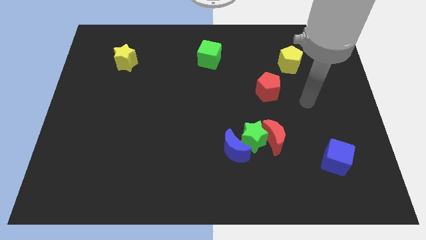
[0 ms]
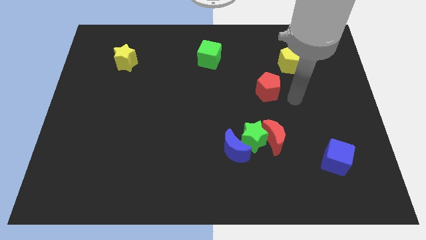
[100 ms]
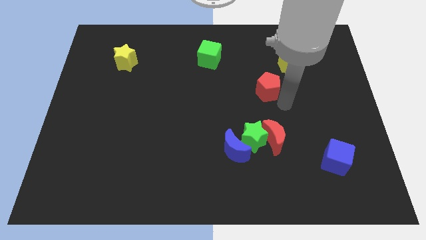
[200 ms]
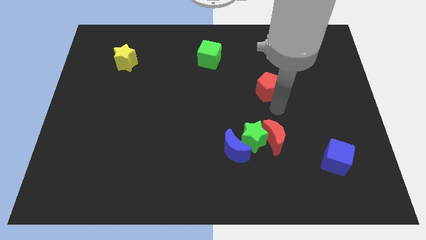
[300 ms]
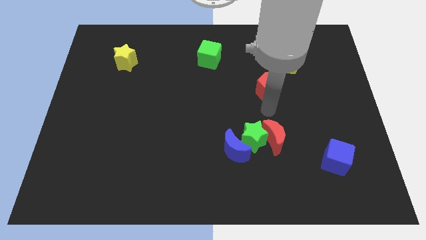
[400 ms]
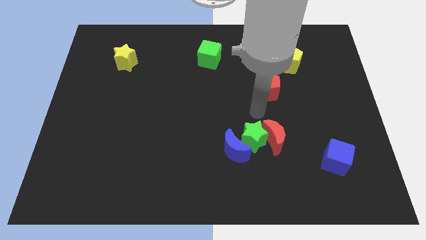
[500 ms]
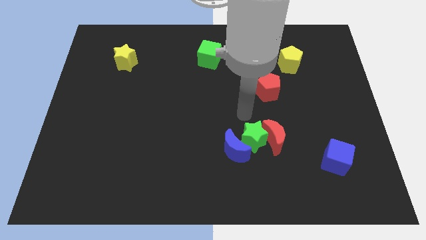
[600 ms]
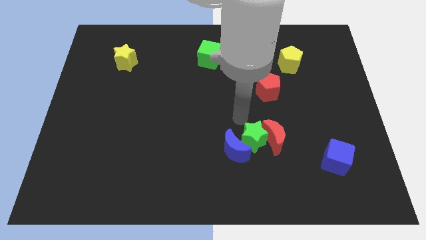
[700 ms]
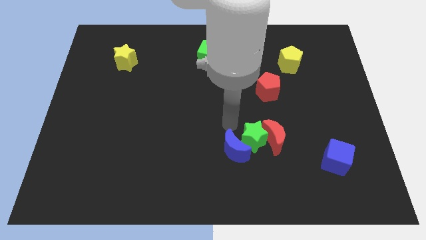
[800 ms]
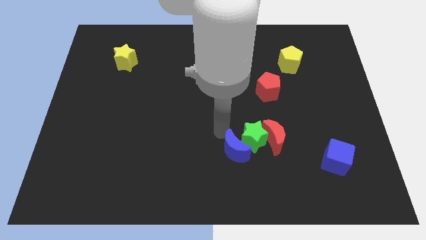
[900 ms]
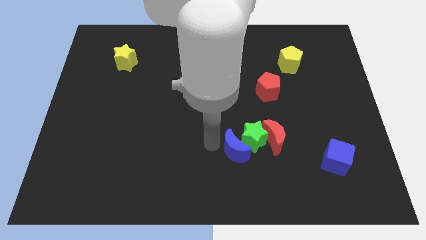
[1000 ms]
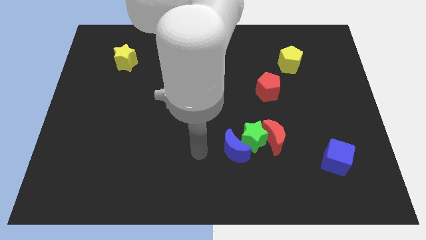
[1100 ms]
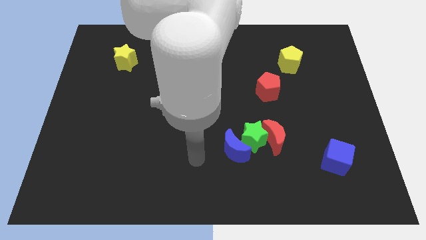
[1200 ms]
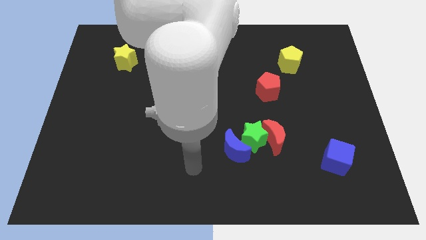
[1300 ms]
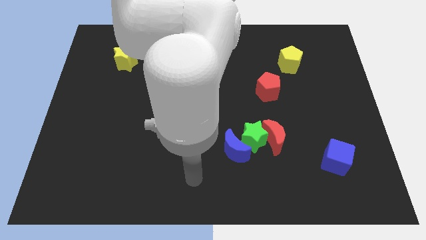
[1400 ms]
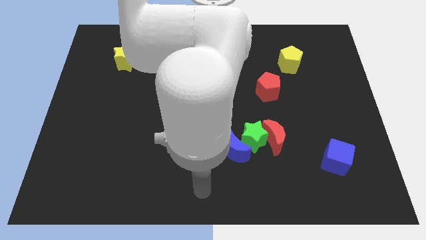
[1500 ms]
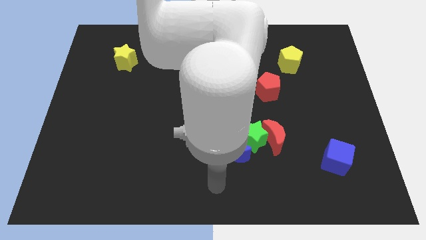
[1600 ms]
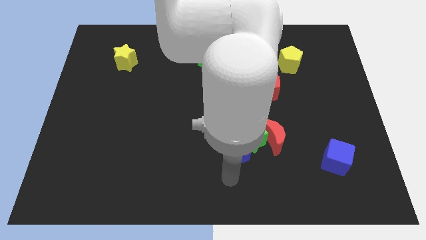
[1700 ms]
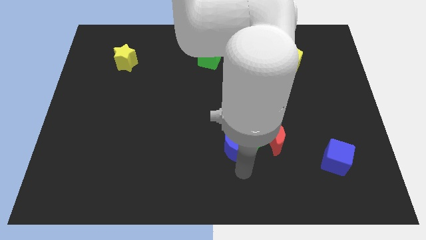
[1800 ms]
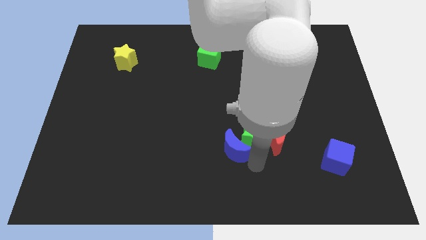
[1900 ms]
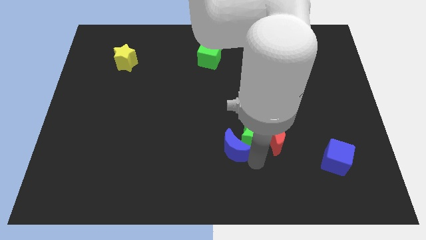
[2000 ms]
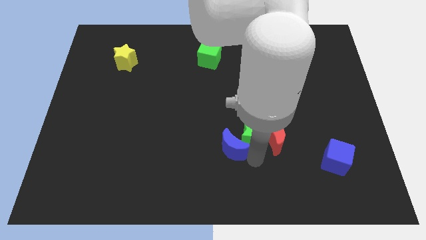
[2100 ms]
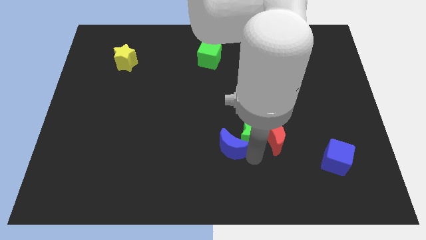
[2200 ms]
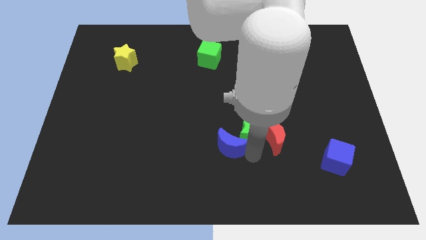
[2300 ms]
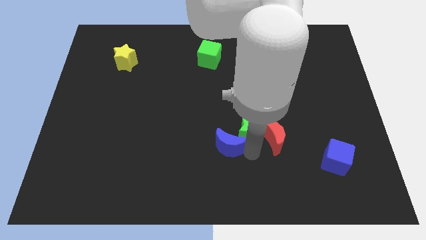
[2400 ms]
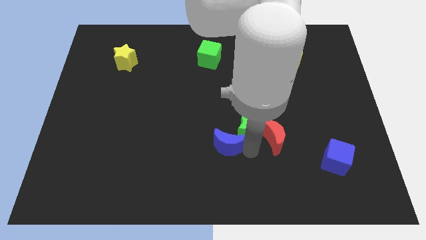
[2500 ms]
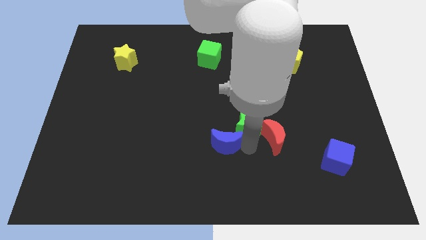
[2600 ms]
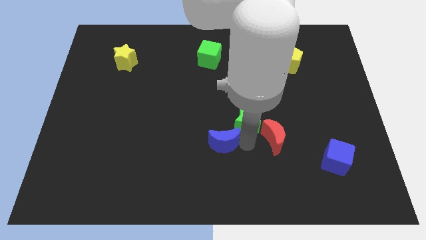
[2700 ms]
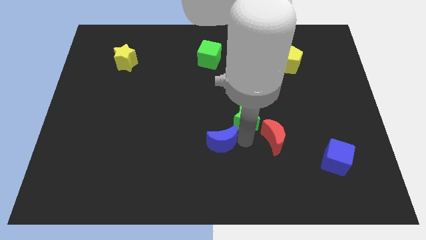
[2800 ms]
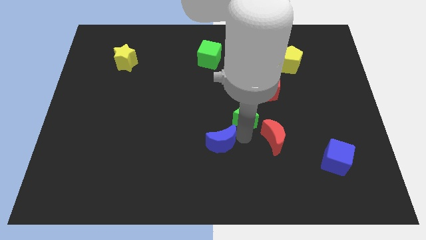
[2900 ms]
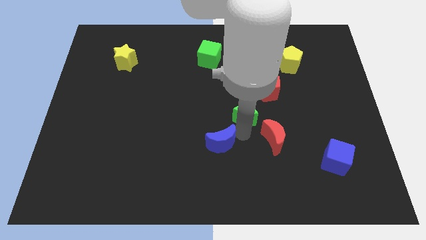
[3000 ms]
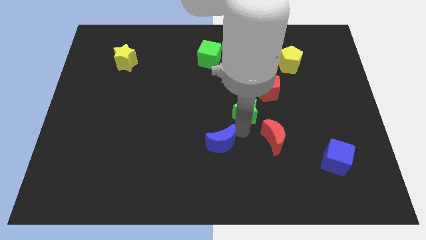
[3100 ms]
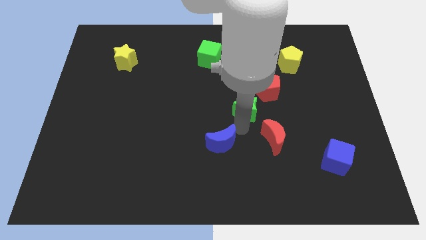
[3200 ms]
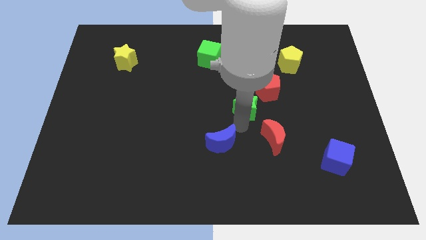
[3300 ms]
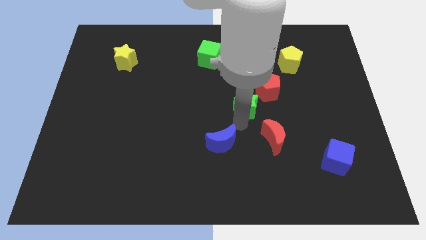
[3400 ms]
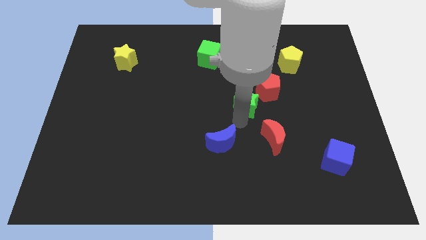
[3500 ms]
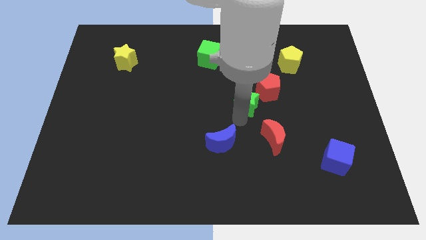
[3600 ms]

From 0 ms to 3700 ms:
pull the green star apart from the red moon and blue moon

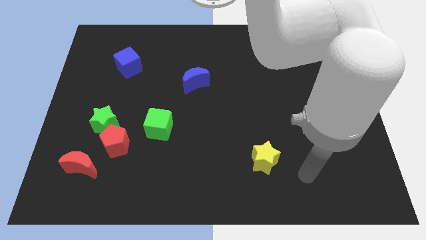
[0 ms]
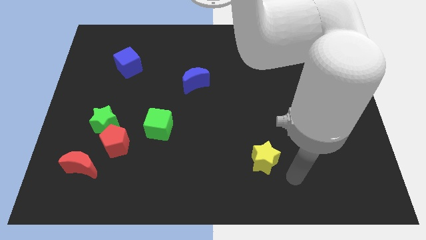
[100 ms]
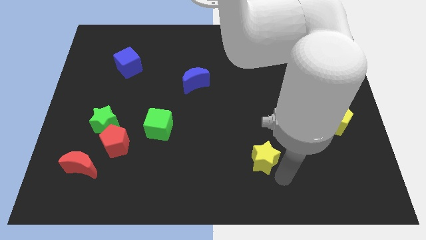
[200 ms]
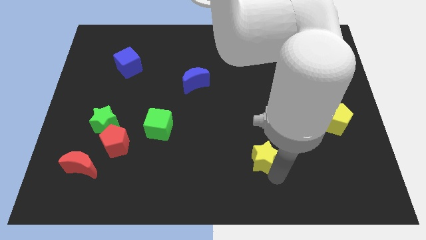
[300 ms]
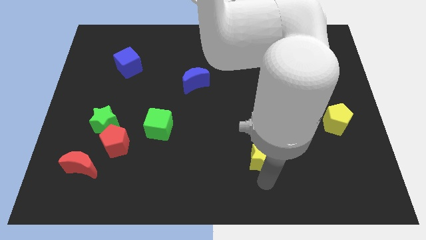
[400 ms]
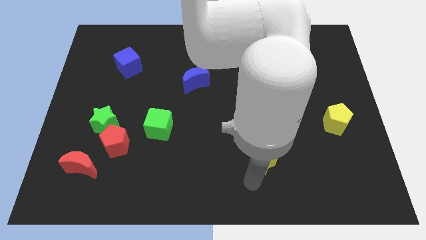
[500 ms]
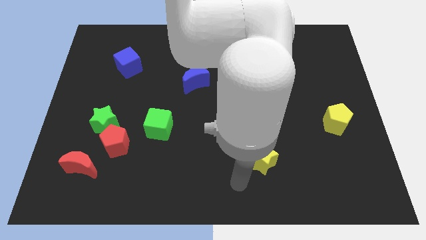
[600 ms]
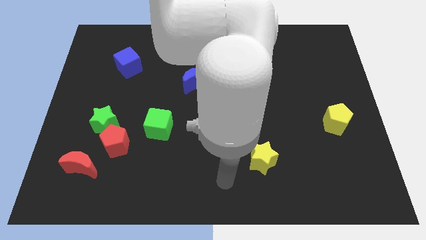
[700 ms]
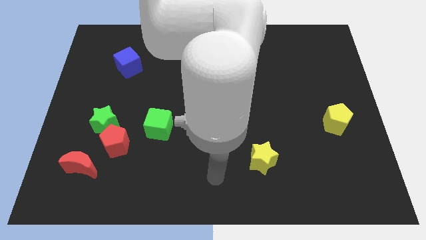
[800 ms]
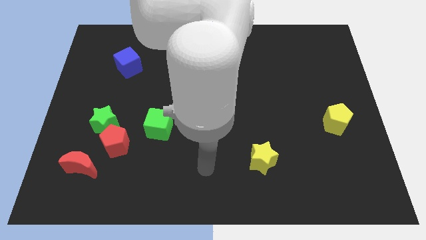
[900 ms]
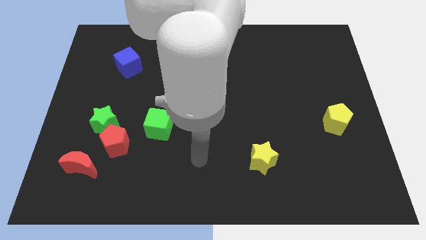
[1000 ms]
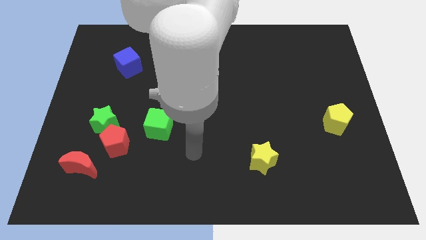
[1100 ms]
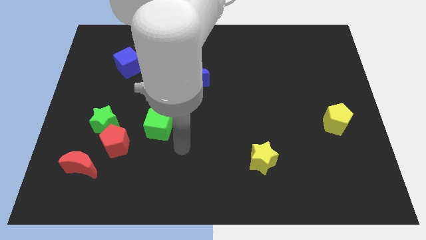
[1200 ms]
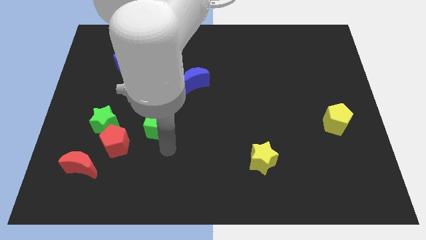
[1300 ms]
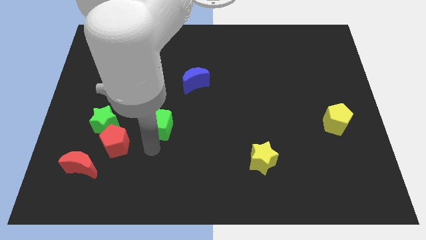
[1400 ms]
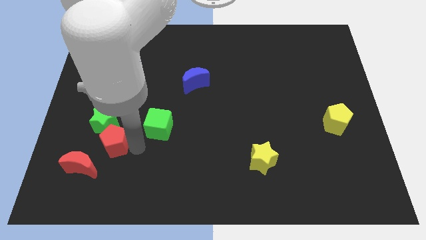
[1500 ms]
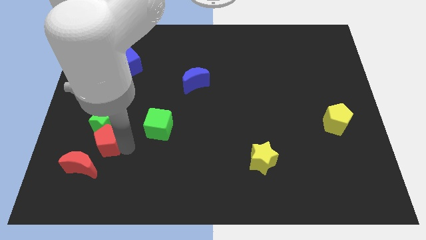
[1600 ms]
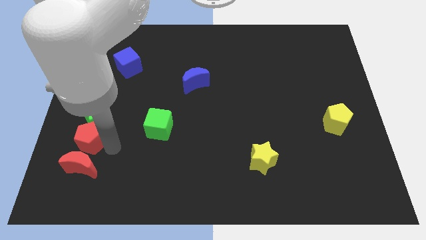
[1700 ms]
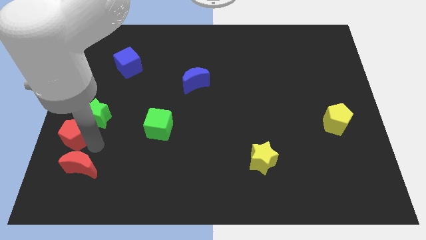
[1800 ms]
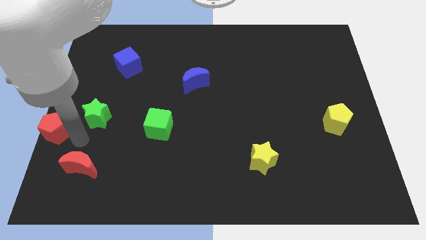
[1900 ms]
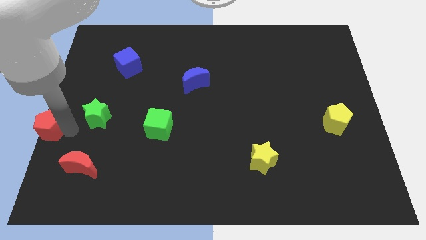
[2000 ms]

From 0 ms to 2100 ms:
separate the green star from the red pentagon

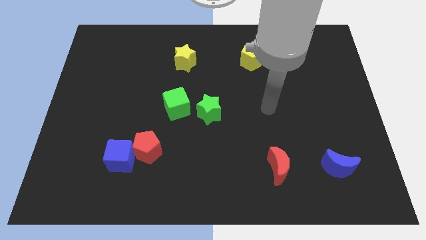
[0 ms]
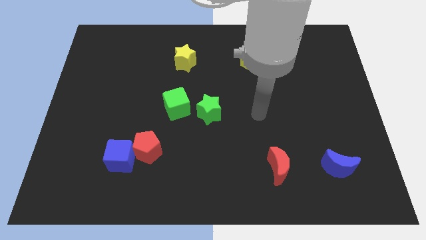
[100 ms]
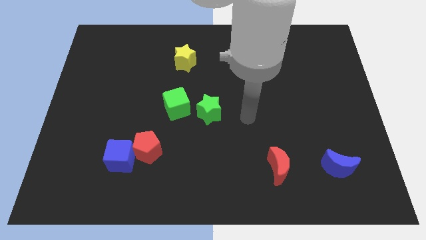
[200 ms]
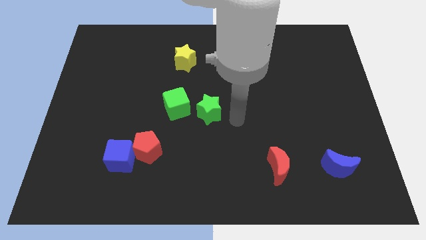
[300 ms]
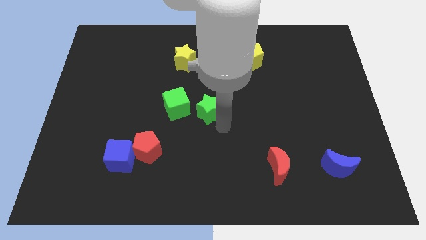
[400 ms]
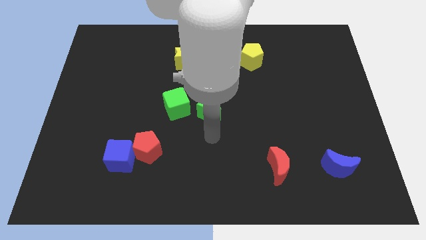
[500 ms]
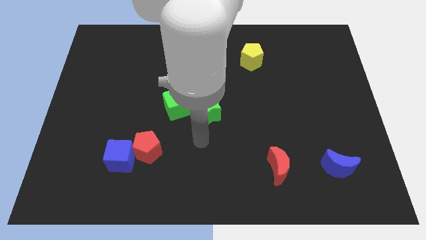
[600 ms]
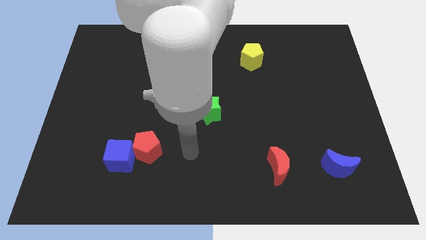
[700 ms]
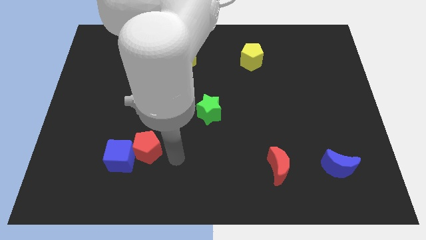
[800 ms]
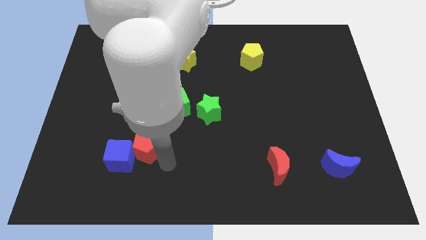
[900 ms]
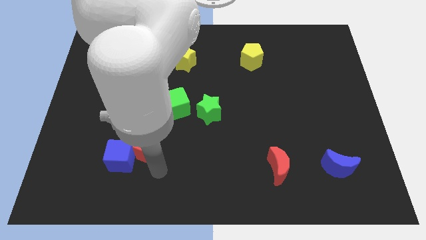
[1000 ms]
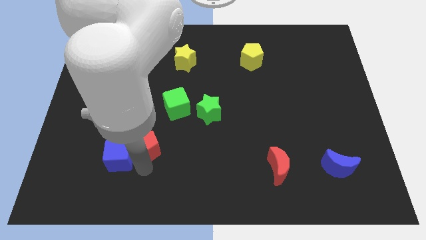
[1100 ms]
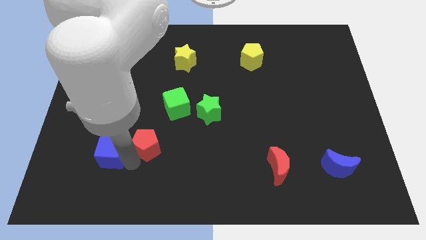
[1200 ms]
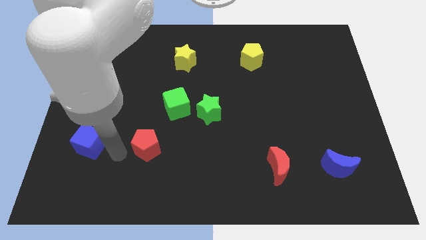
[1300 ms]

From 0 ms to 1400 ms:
pull the red pentagon apart from the blue cube

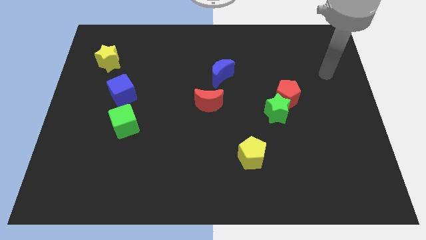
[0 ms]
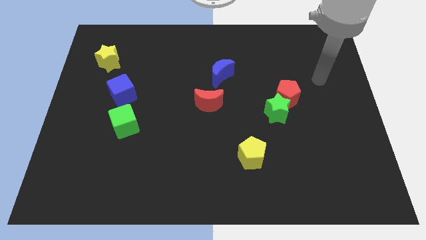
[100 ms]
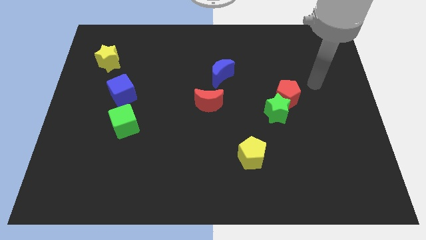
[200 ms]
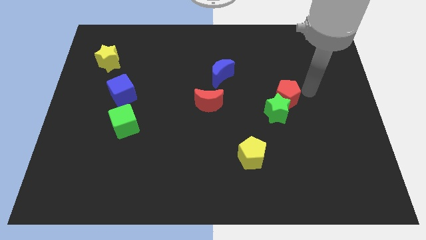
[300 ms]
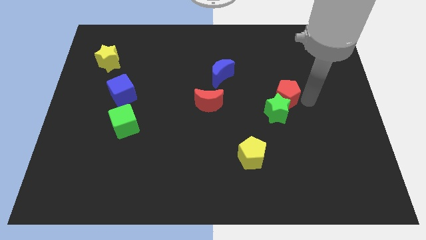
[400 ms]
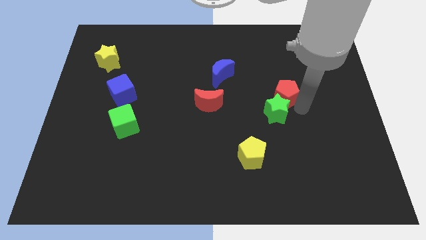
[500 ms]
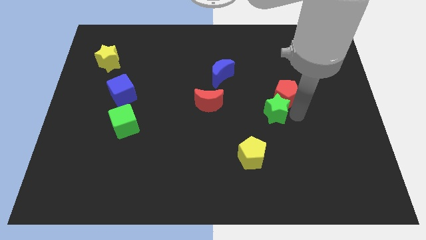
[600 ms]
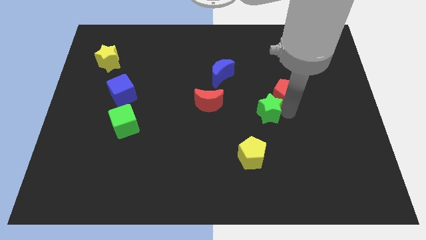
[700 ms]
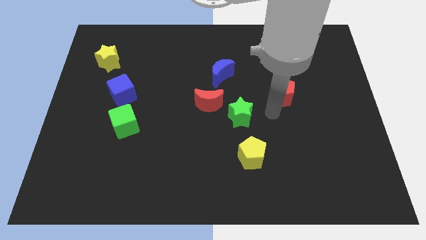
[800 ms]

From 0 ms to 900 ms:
separate the red pentagon from the green star

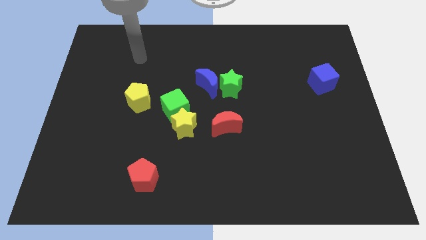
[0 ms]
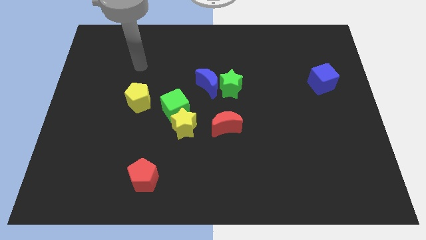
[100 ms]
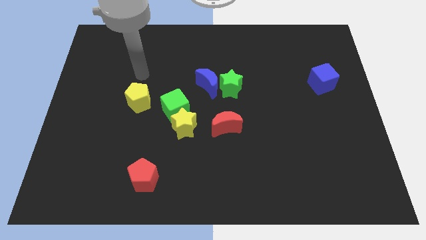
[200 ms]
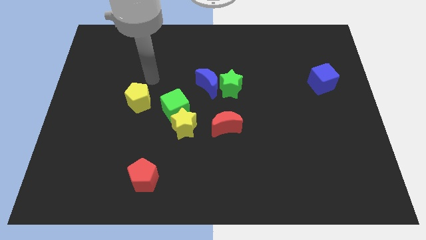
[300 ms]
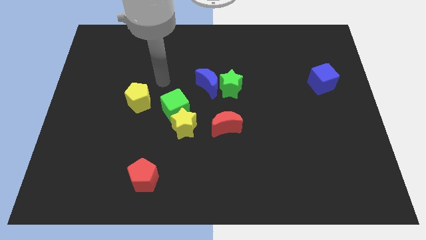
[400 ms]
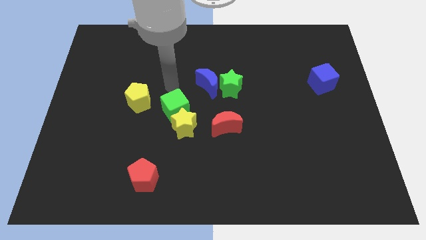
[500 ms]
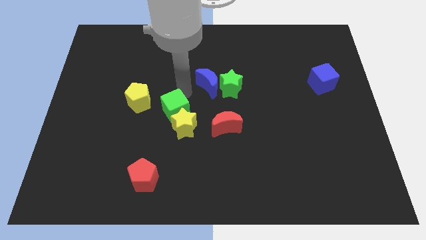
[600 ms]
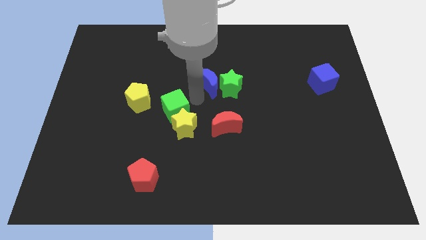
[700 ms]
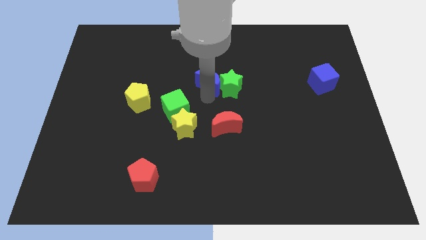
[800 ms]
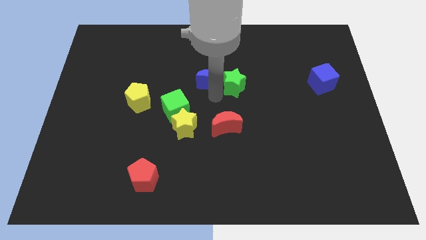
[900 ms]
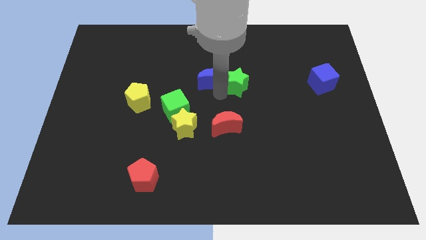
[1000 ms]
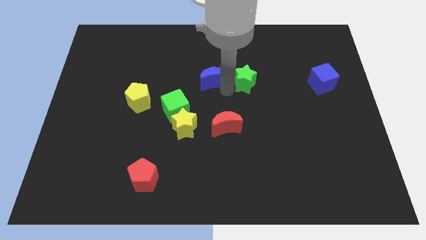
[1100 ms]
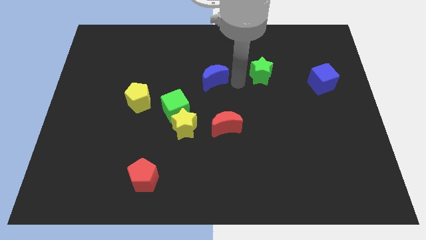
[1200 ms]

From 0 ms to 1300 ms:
separate the blue moon from the green star
